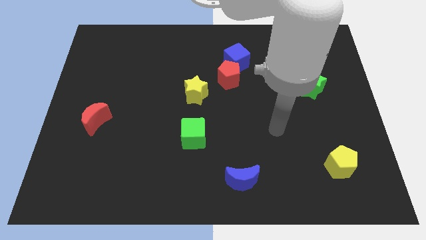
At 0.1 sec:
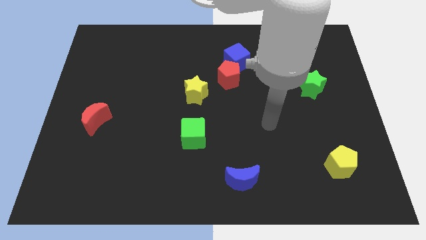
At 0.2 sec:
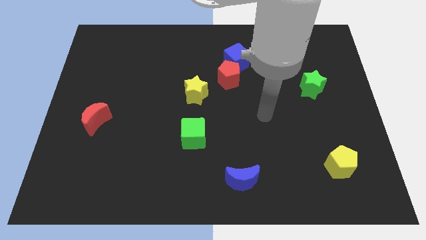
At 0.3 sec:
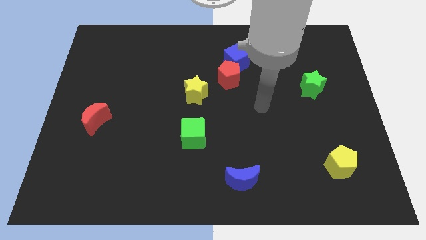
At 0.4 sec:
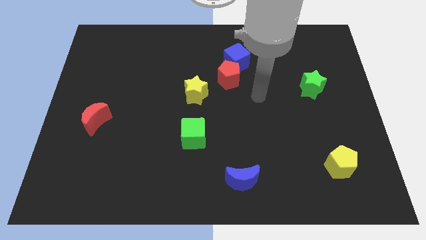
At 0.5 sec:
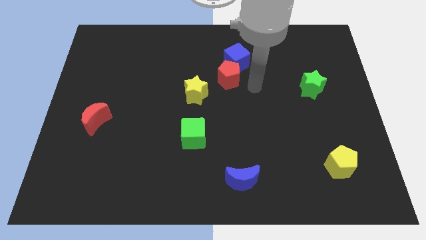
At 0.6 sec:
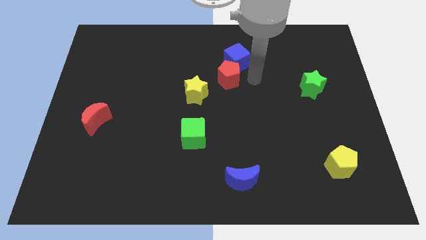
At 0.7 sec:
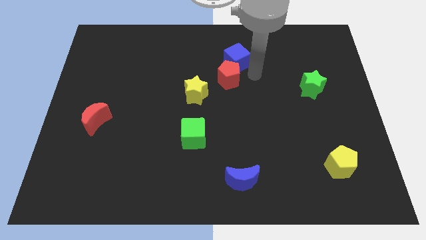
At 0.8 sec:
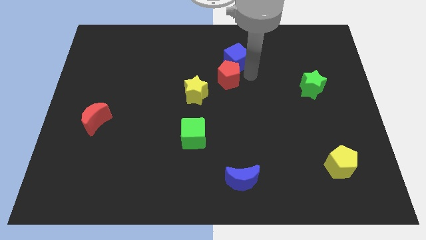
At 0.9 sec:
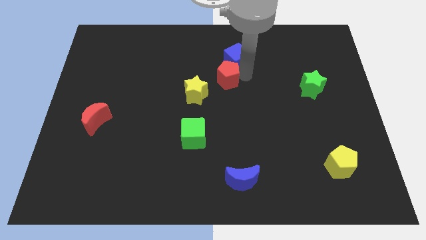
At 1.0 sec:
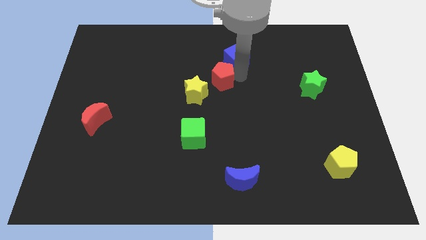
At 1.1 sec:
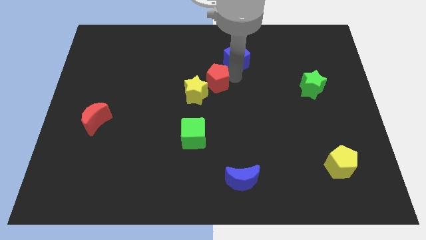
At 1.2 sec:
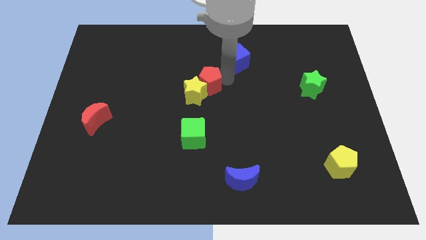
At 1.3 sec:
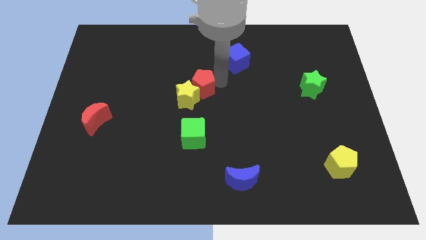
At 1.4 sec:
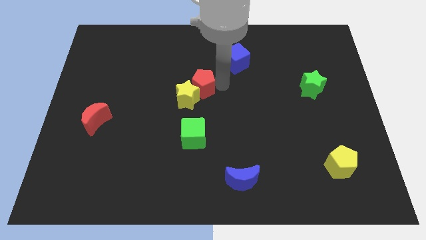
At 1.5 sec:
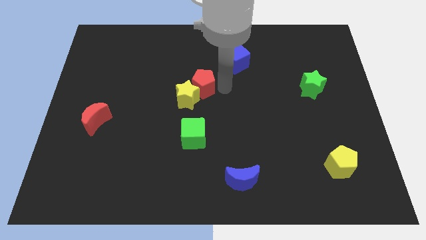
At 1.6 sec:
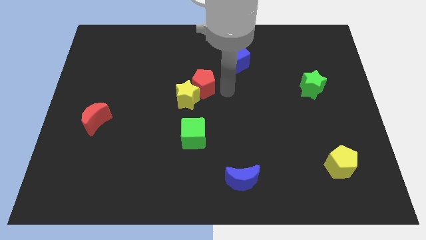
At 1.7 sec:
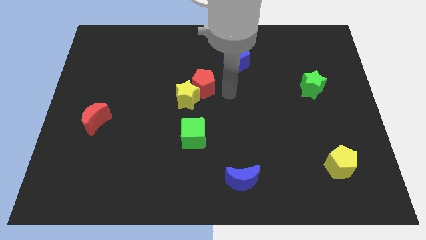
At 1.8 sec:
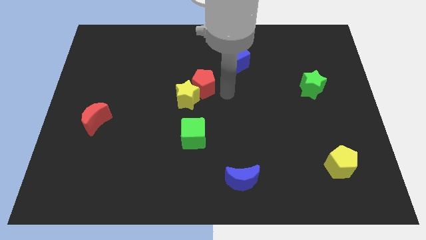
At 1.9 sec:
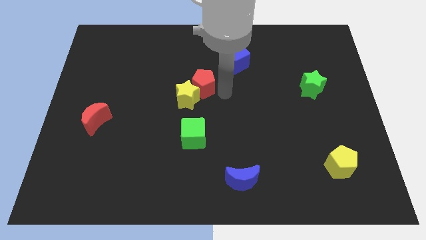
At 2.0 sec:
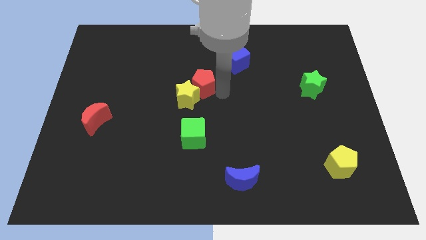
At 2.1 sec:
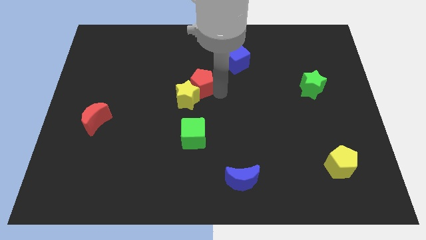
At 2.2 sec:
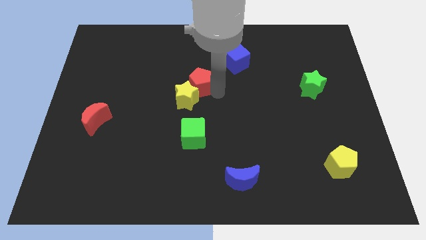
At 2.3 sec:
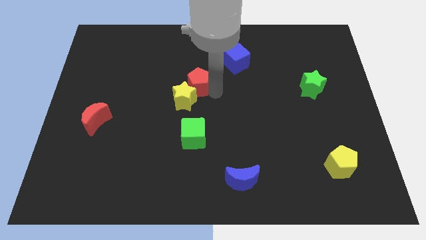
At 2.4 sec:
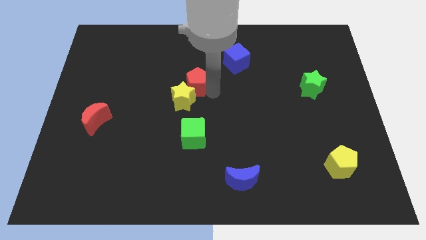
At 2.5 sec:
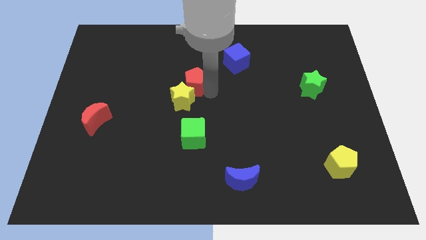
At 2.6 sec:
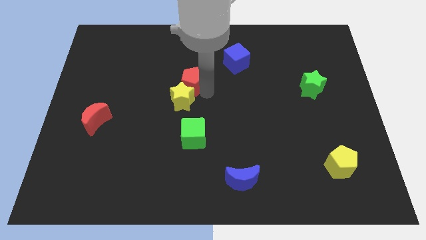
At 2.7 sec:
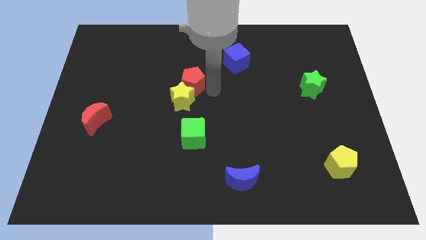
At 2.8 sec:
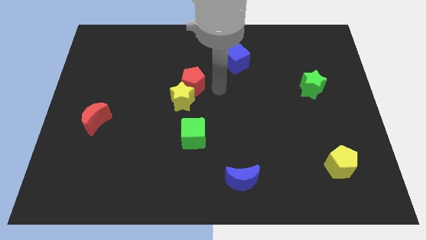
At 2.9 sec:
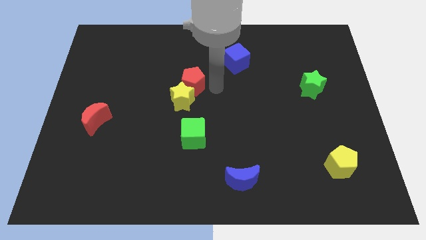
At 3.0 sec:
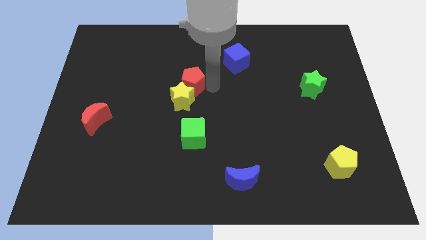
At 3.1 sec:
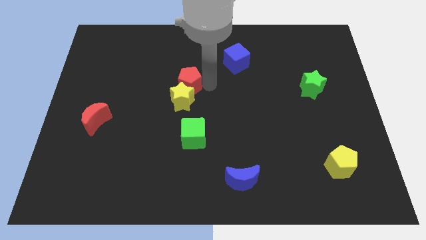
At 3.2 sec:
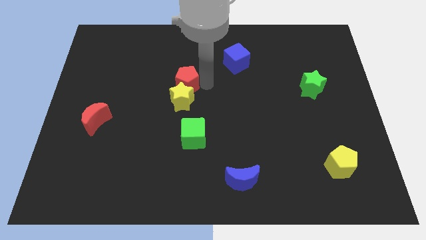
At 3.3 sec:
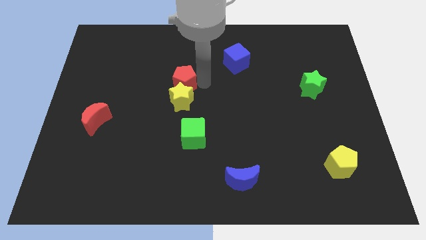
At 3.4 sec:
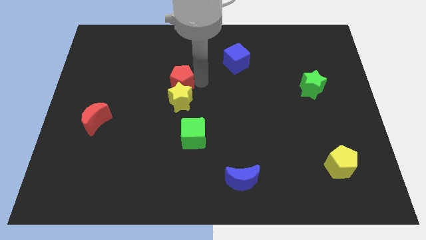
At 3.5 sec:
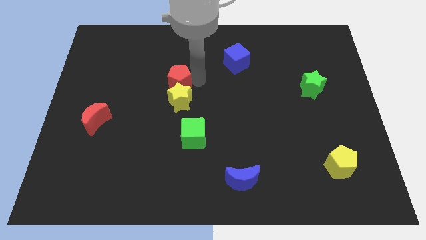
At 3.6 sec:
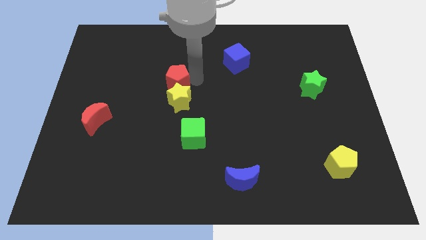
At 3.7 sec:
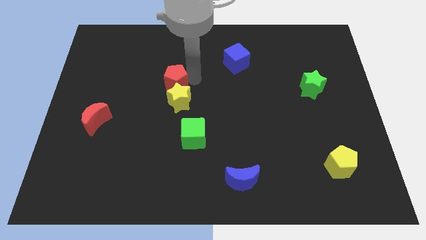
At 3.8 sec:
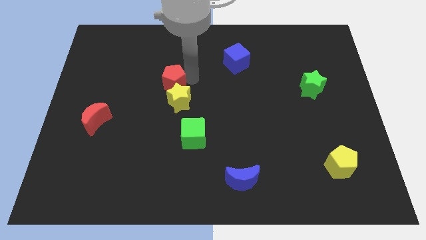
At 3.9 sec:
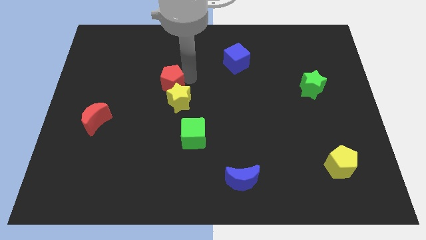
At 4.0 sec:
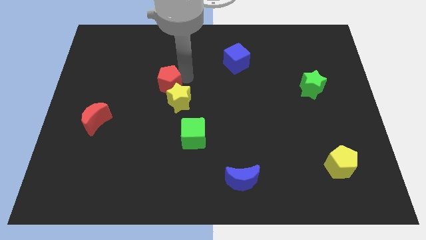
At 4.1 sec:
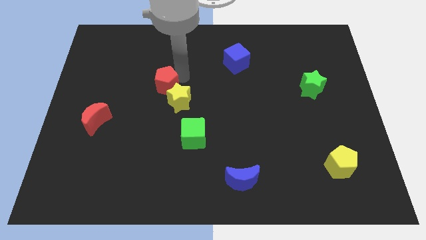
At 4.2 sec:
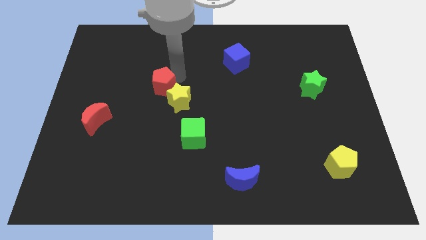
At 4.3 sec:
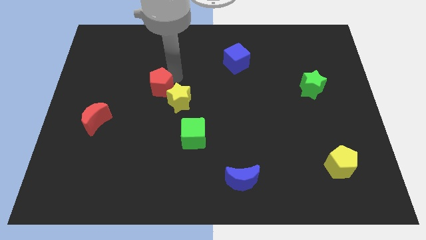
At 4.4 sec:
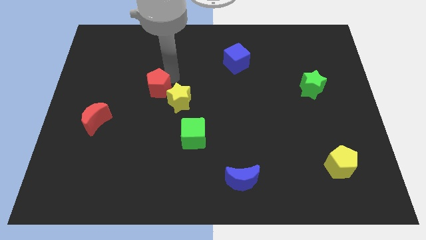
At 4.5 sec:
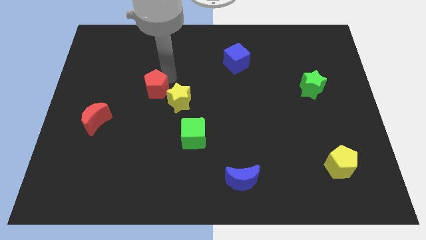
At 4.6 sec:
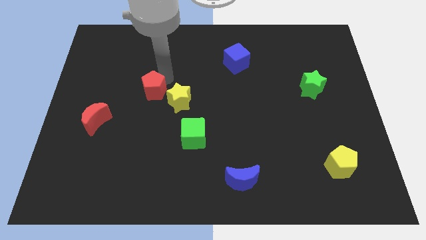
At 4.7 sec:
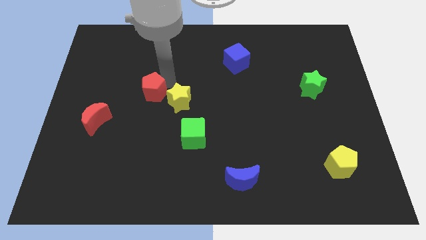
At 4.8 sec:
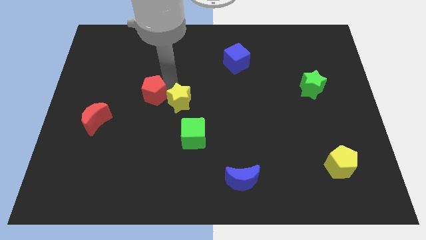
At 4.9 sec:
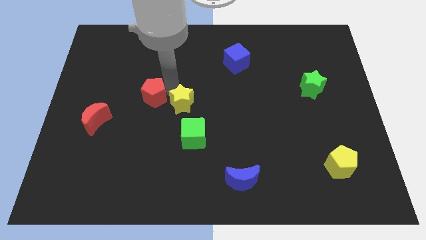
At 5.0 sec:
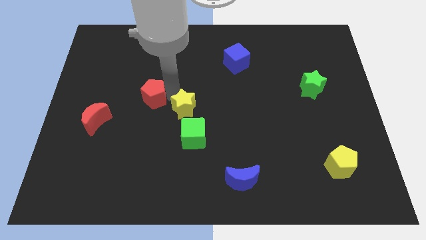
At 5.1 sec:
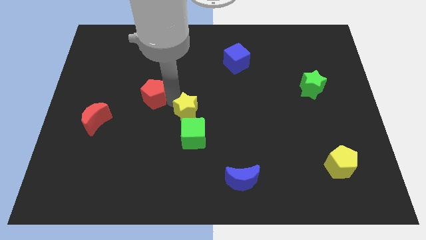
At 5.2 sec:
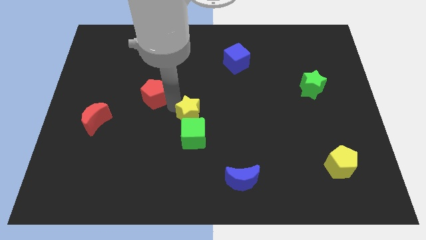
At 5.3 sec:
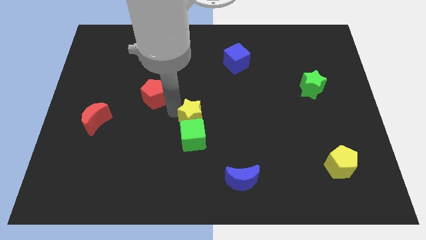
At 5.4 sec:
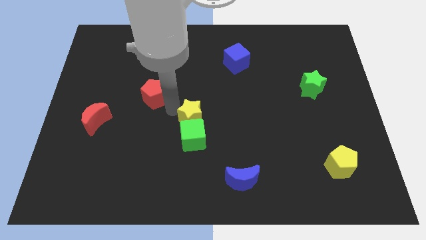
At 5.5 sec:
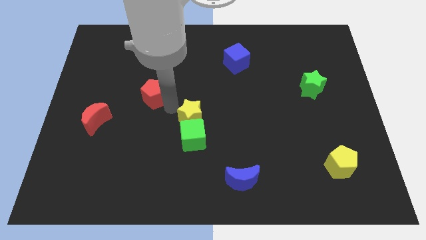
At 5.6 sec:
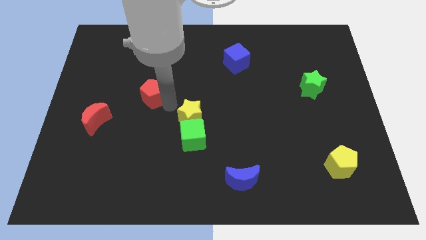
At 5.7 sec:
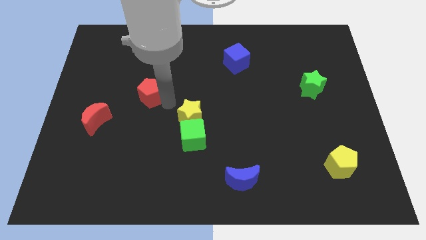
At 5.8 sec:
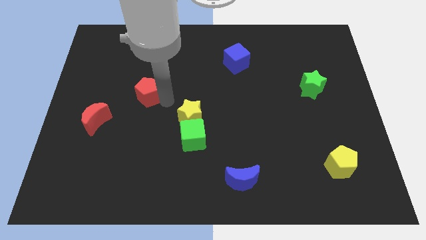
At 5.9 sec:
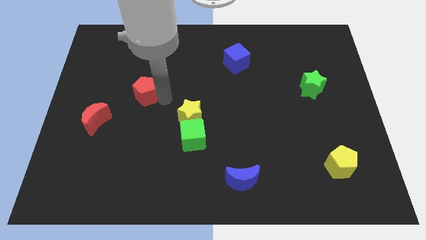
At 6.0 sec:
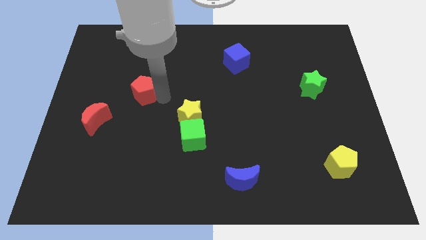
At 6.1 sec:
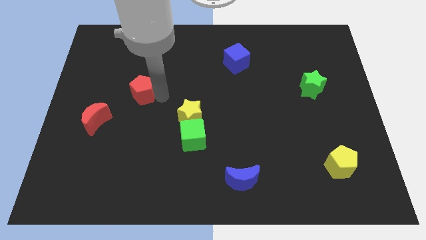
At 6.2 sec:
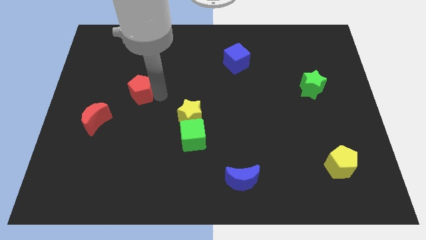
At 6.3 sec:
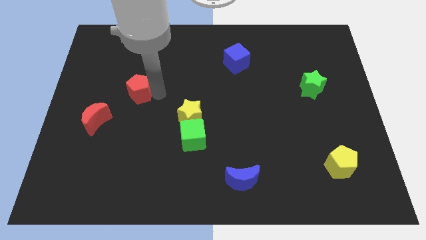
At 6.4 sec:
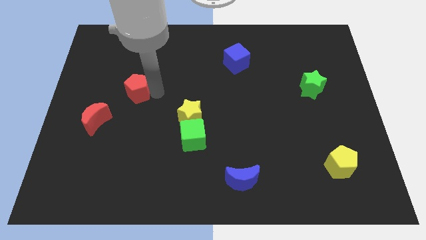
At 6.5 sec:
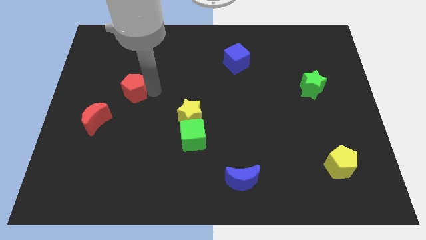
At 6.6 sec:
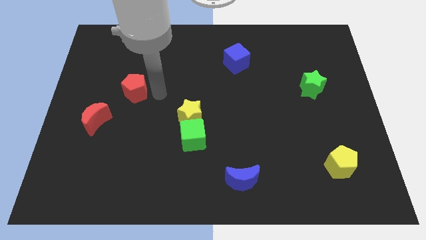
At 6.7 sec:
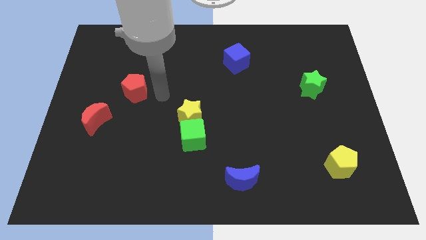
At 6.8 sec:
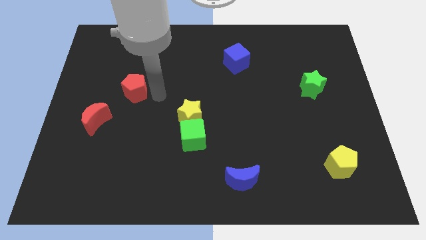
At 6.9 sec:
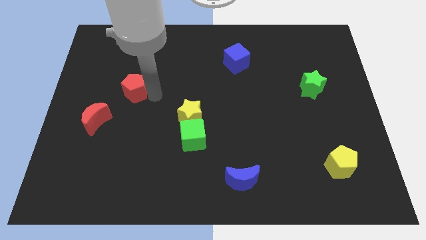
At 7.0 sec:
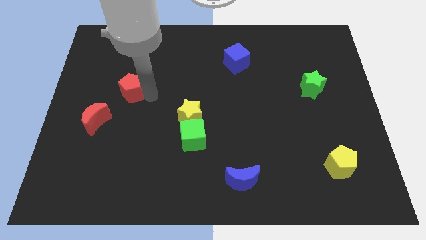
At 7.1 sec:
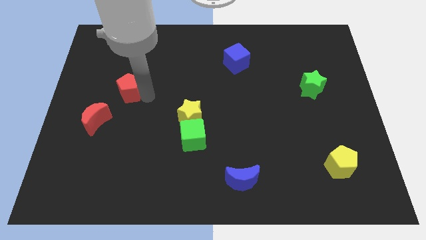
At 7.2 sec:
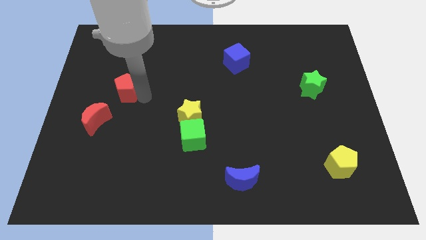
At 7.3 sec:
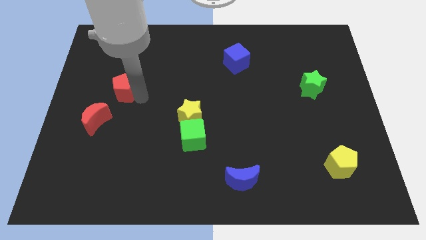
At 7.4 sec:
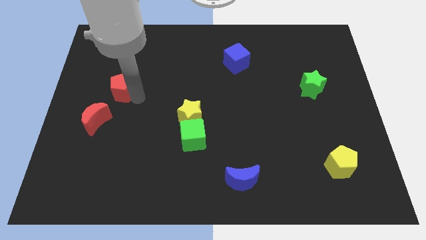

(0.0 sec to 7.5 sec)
slide the red pentagon to the top of the red moon
